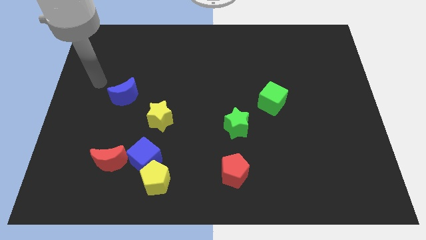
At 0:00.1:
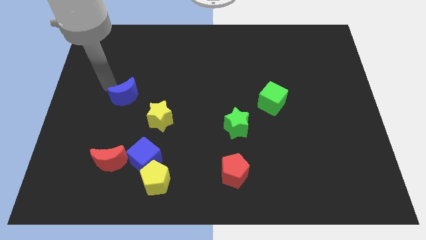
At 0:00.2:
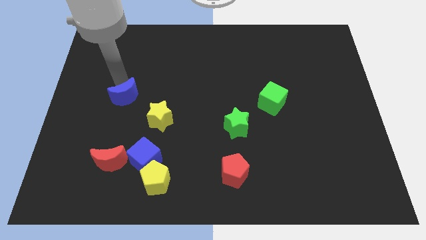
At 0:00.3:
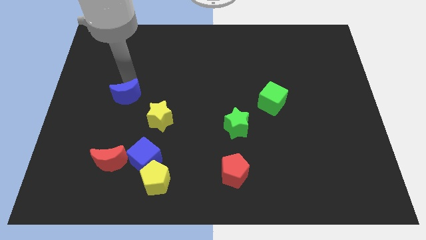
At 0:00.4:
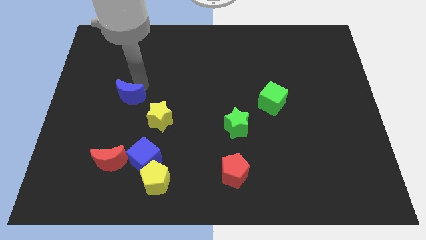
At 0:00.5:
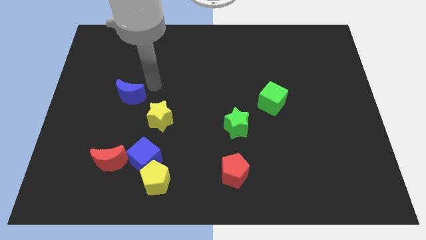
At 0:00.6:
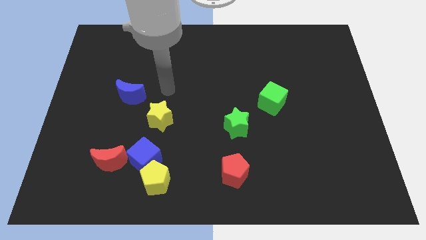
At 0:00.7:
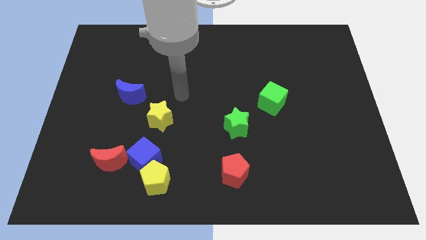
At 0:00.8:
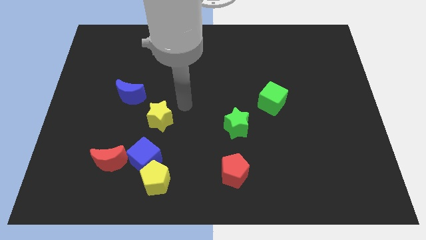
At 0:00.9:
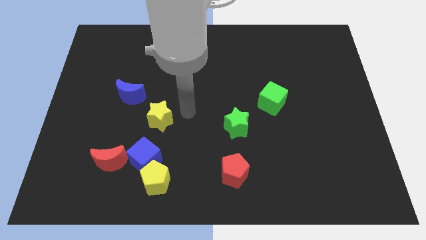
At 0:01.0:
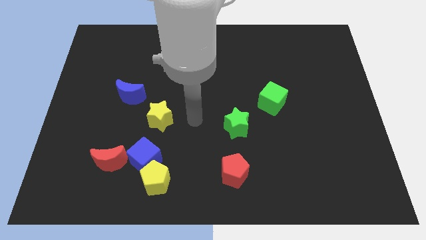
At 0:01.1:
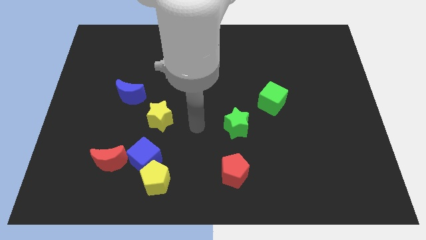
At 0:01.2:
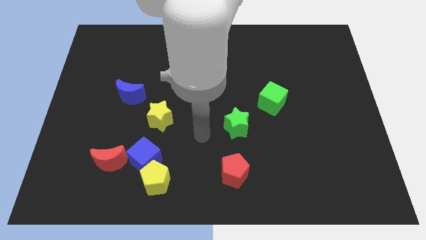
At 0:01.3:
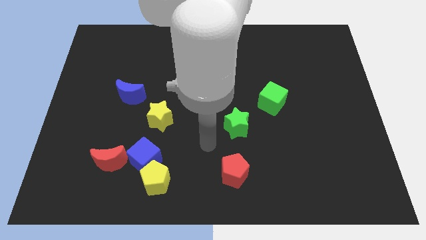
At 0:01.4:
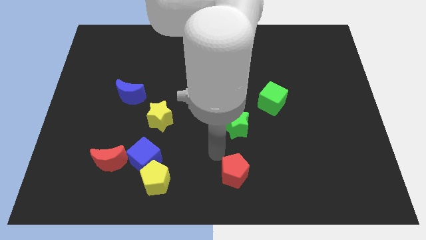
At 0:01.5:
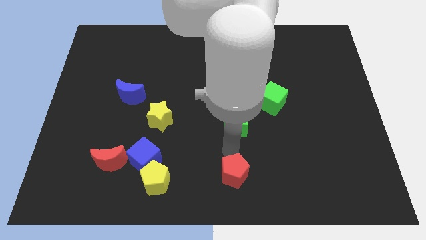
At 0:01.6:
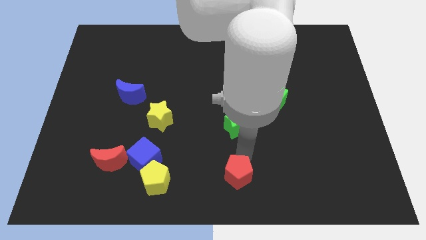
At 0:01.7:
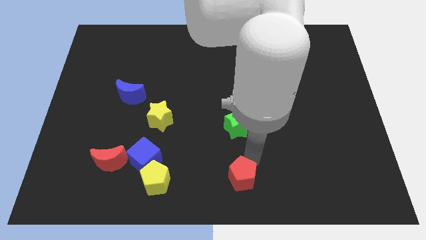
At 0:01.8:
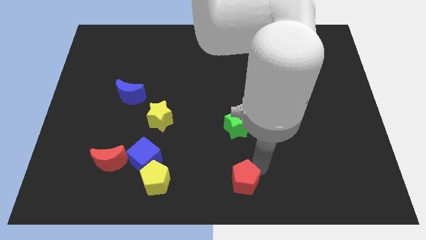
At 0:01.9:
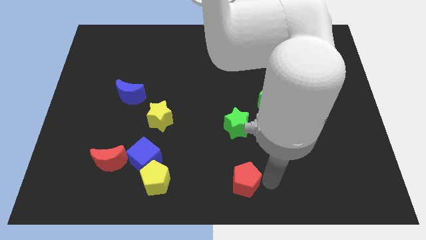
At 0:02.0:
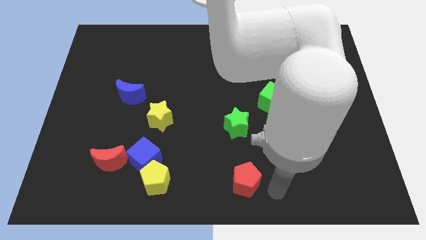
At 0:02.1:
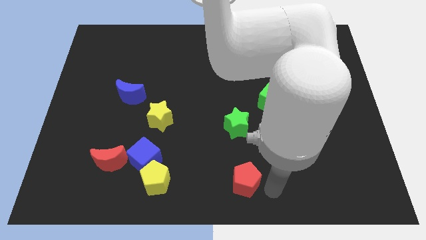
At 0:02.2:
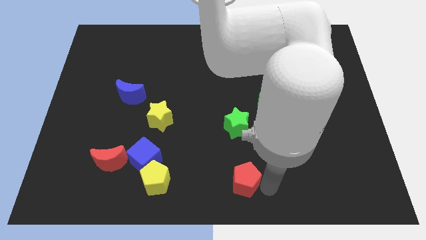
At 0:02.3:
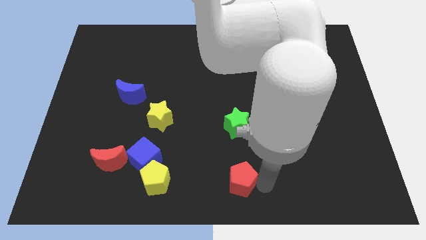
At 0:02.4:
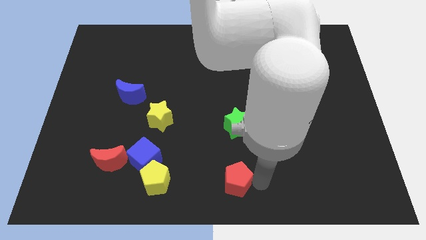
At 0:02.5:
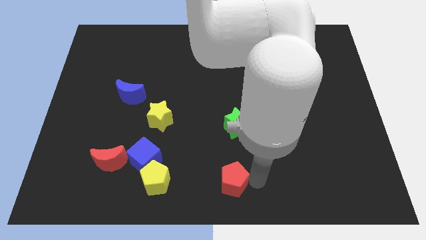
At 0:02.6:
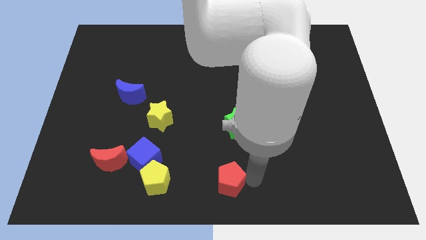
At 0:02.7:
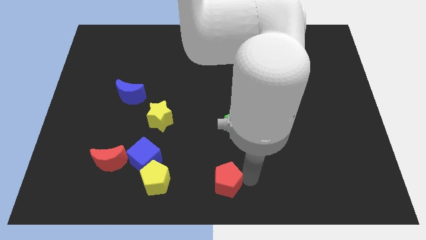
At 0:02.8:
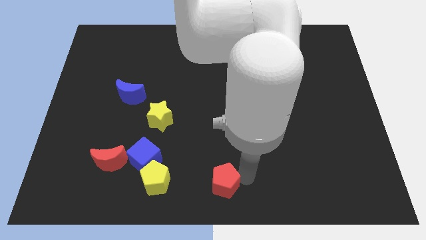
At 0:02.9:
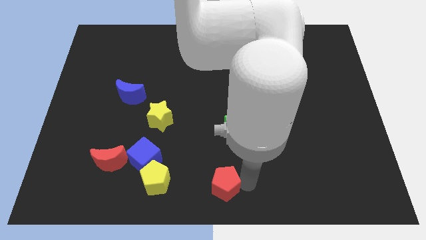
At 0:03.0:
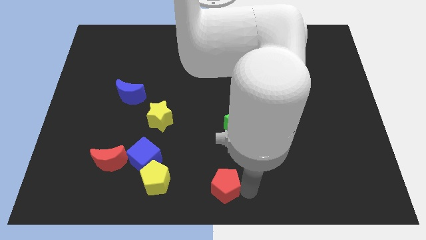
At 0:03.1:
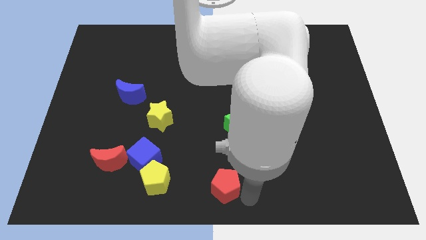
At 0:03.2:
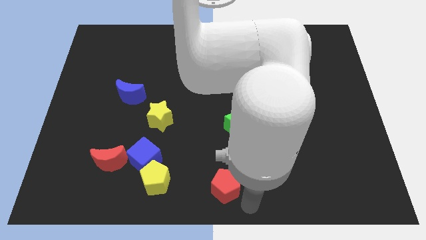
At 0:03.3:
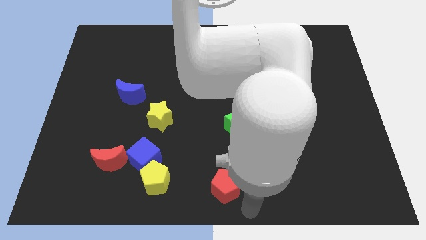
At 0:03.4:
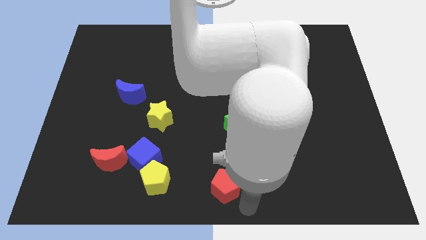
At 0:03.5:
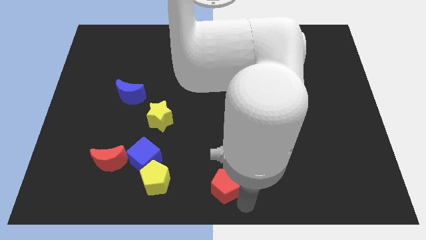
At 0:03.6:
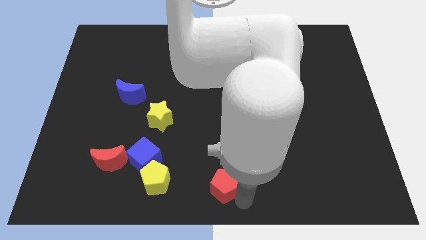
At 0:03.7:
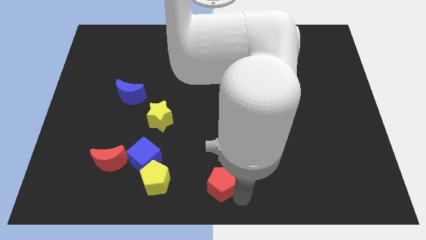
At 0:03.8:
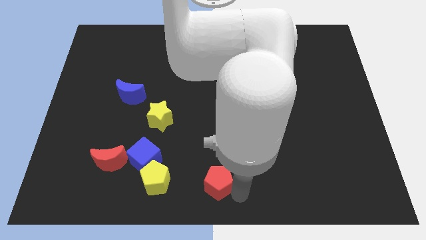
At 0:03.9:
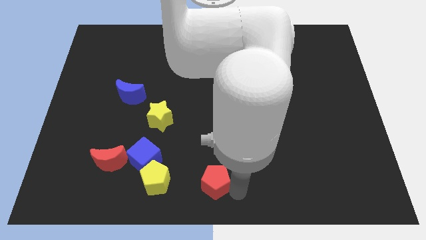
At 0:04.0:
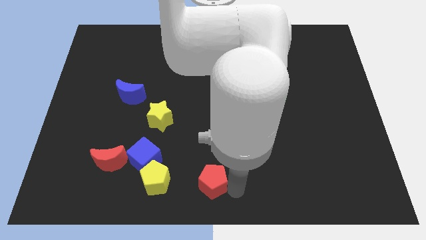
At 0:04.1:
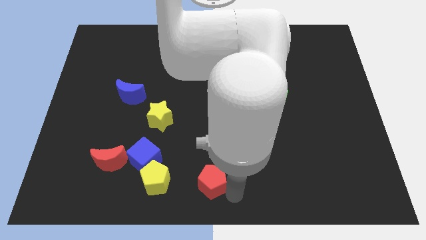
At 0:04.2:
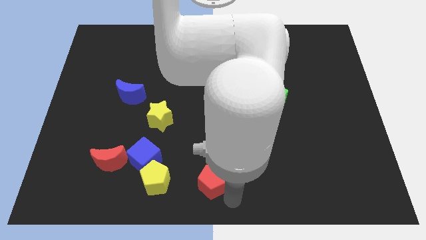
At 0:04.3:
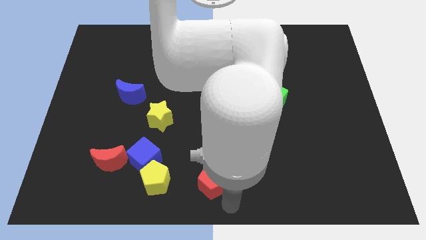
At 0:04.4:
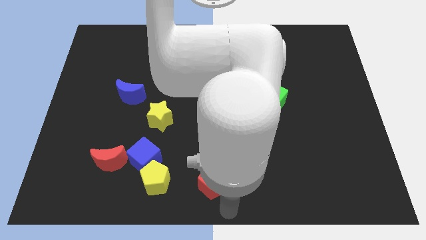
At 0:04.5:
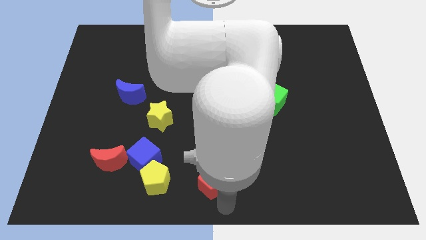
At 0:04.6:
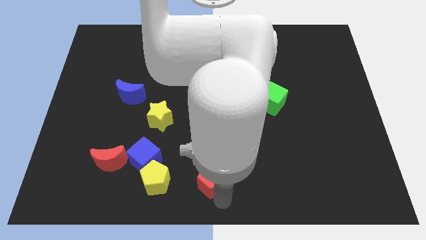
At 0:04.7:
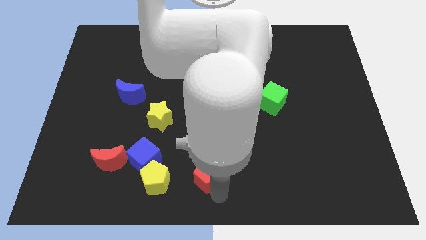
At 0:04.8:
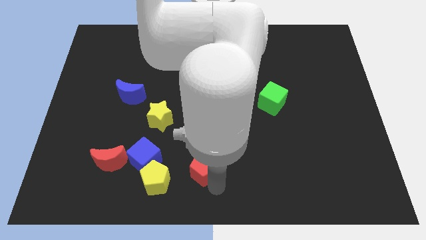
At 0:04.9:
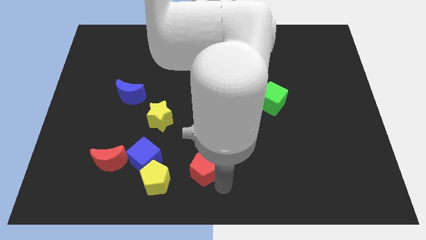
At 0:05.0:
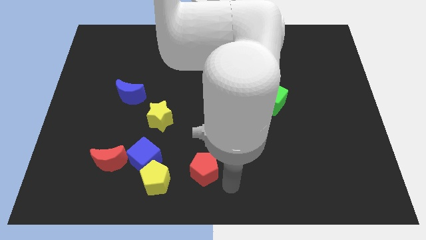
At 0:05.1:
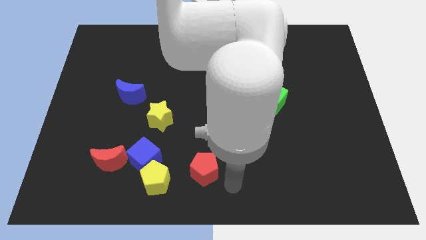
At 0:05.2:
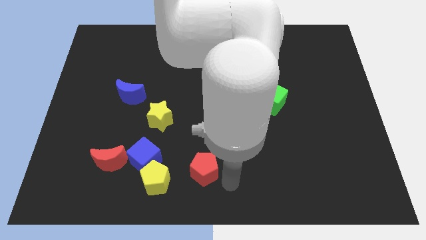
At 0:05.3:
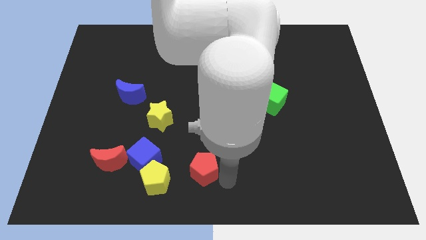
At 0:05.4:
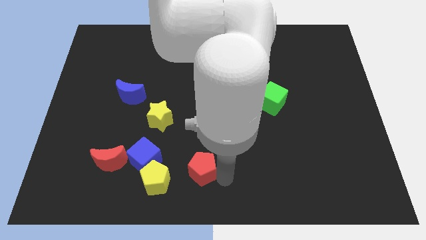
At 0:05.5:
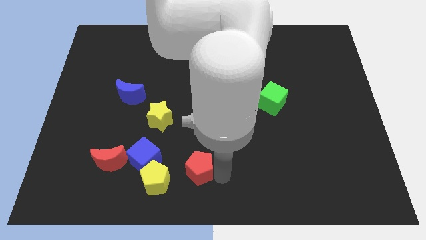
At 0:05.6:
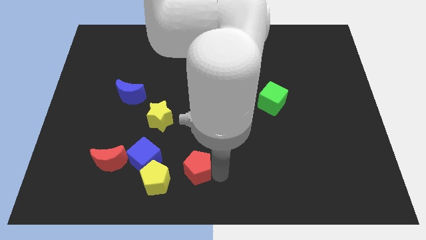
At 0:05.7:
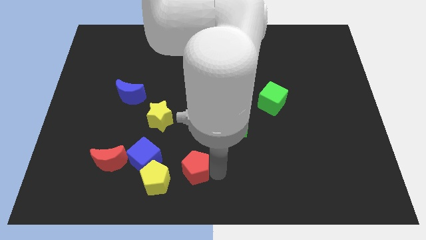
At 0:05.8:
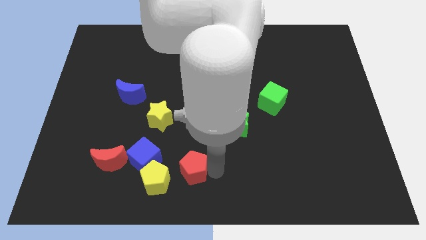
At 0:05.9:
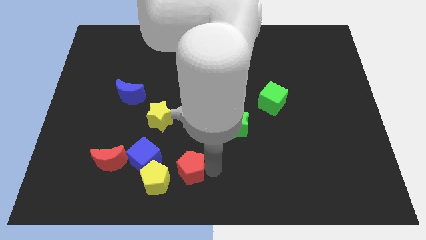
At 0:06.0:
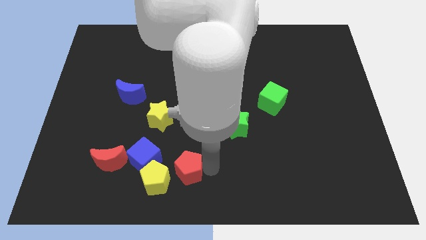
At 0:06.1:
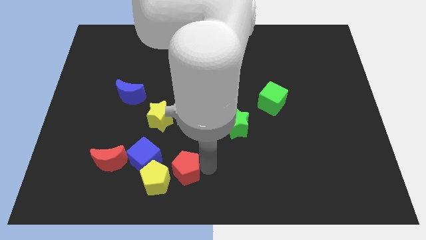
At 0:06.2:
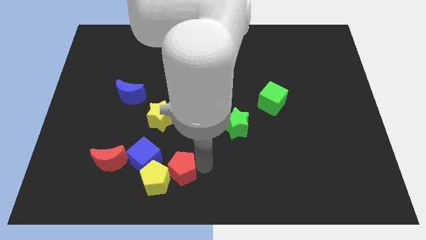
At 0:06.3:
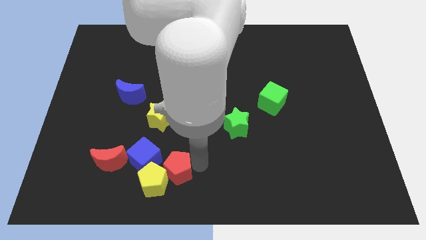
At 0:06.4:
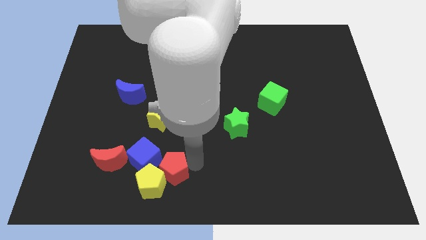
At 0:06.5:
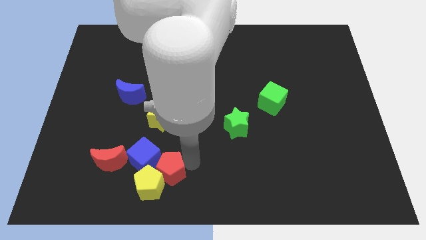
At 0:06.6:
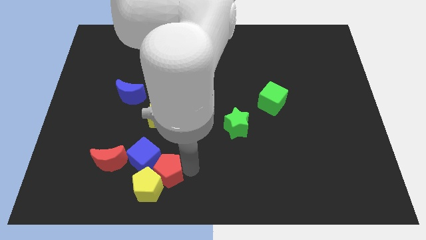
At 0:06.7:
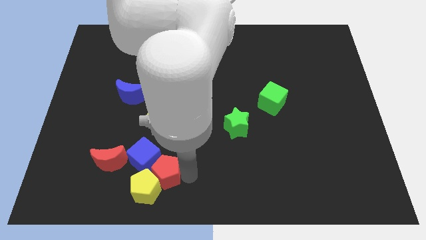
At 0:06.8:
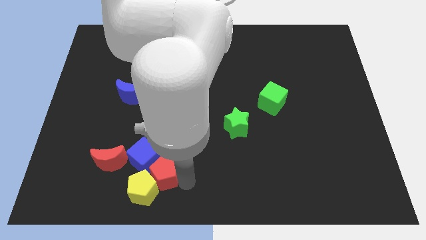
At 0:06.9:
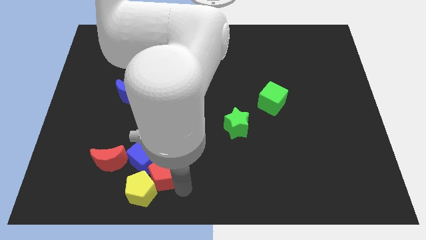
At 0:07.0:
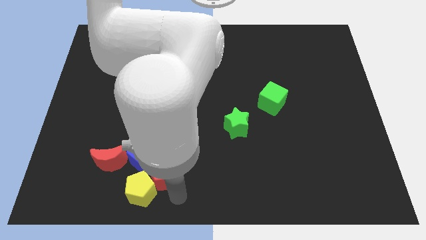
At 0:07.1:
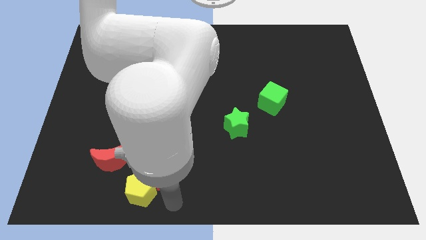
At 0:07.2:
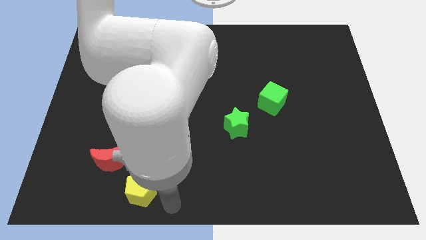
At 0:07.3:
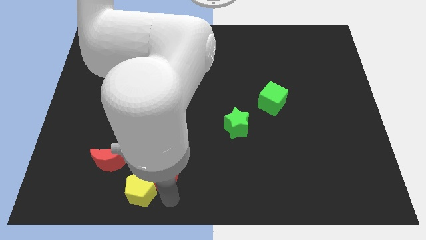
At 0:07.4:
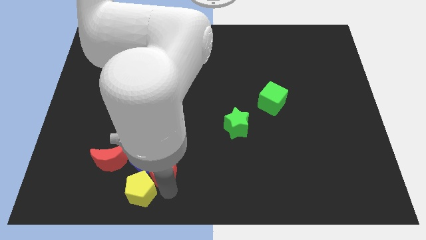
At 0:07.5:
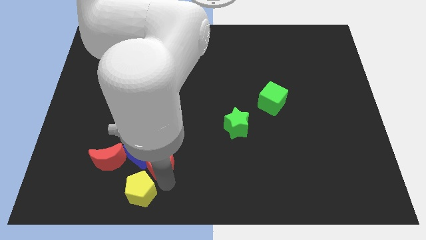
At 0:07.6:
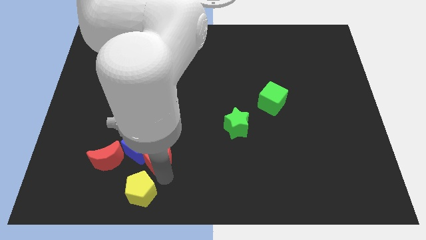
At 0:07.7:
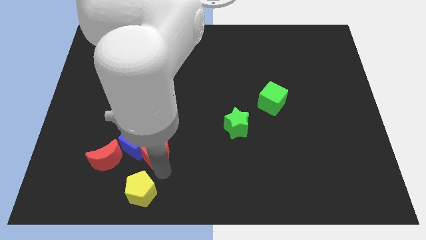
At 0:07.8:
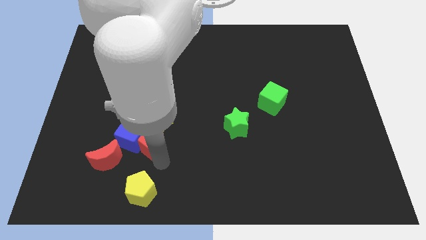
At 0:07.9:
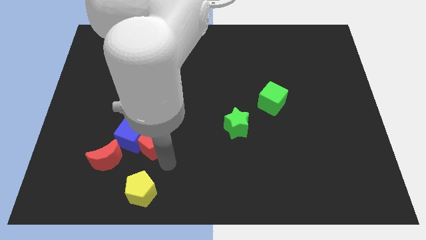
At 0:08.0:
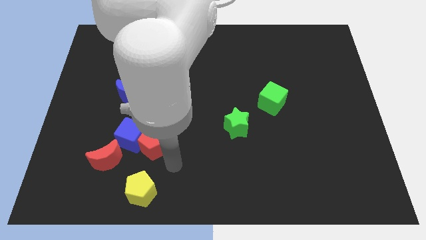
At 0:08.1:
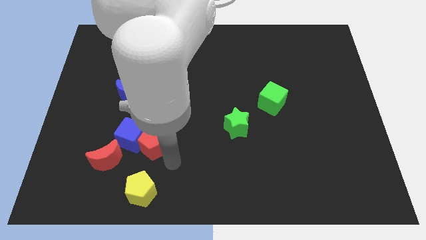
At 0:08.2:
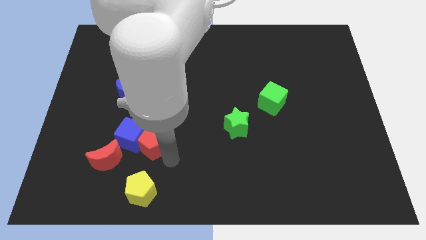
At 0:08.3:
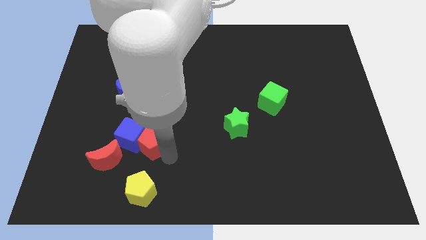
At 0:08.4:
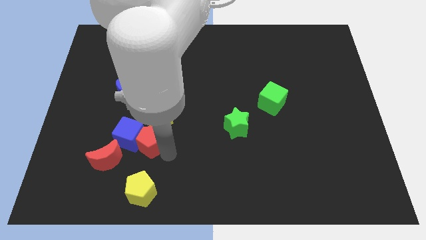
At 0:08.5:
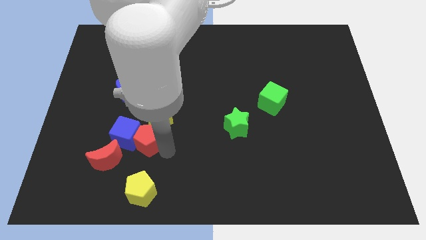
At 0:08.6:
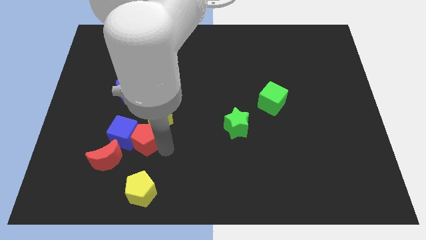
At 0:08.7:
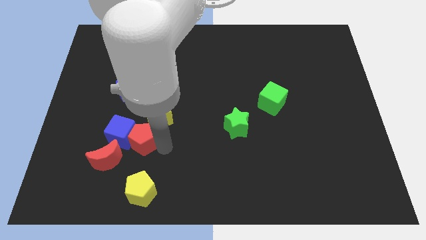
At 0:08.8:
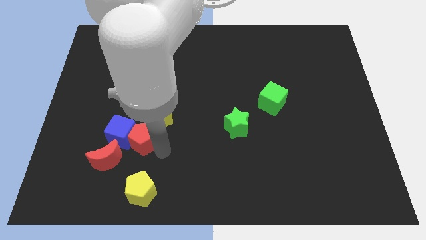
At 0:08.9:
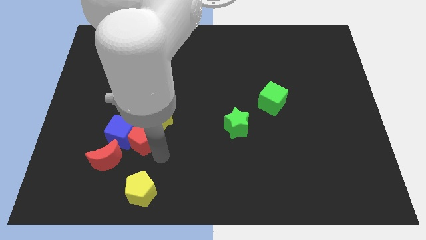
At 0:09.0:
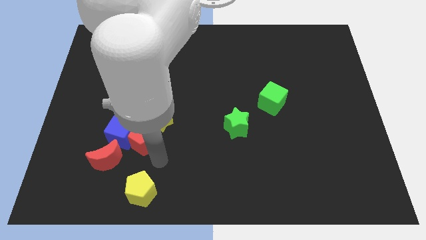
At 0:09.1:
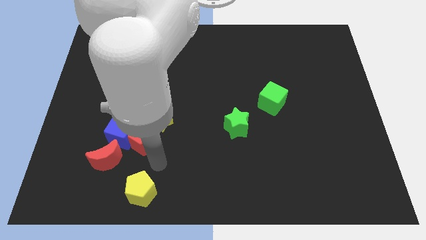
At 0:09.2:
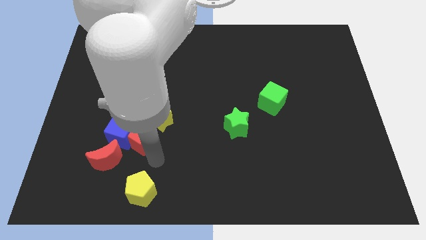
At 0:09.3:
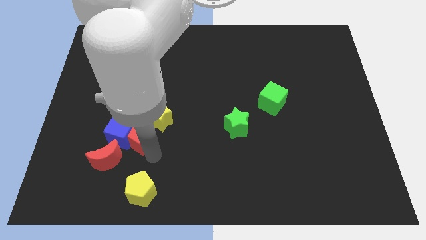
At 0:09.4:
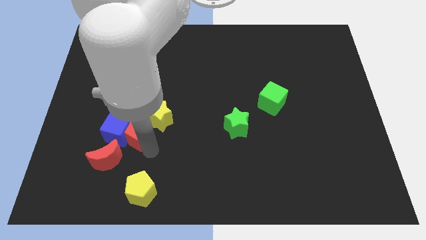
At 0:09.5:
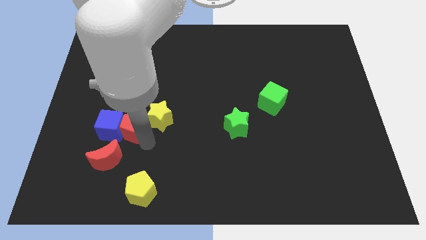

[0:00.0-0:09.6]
slide the red pentagon to the left side of the yellow star
